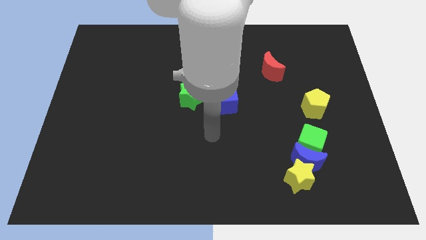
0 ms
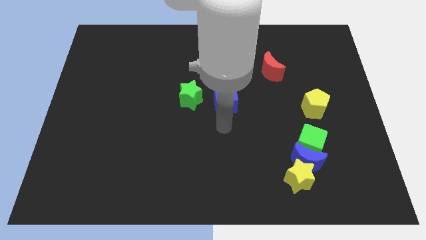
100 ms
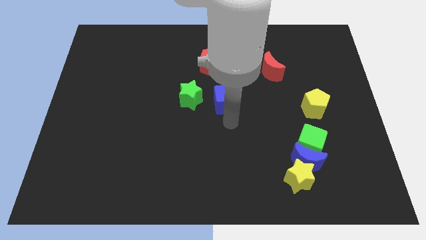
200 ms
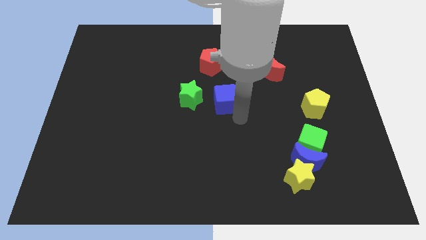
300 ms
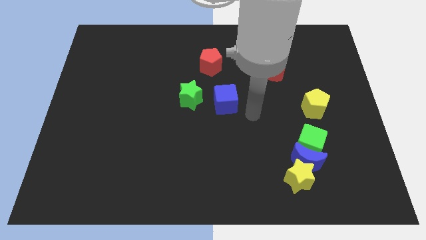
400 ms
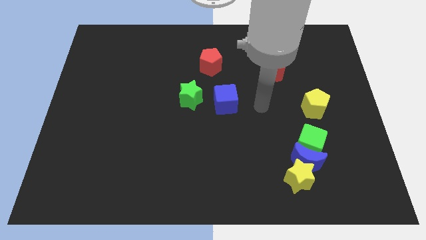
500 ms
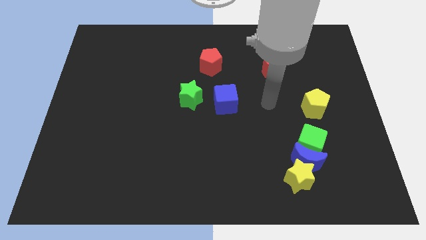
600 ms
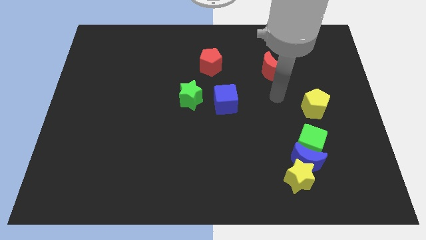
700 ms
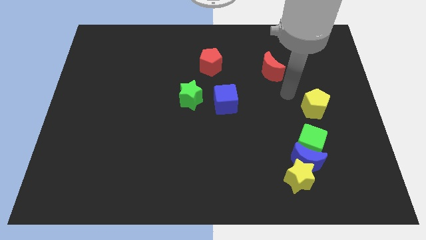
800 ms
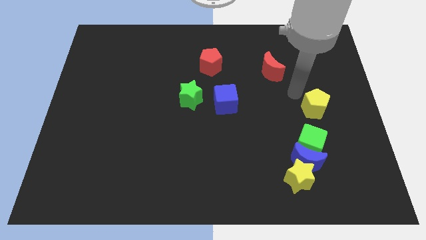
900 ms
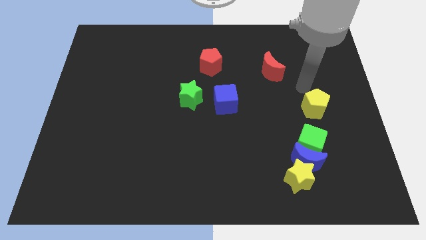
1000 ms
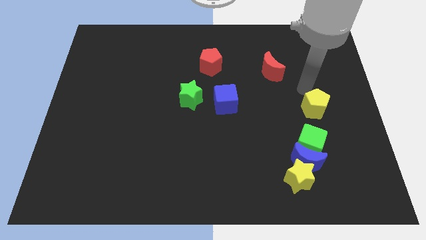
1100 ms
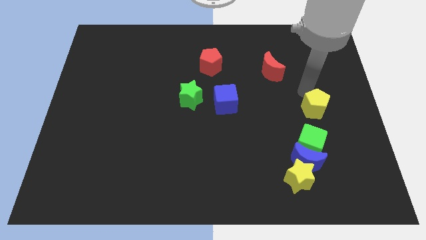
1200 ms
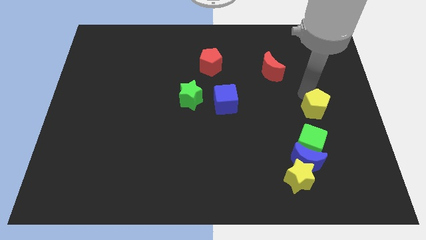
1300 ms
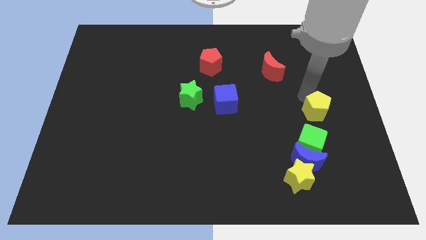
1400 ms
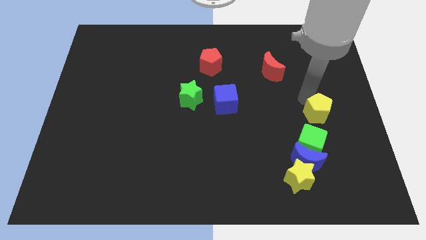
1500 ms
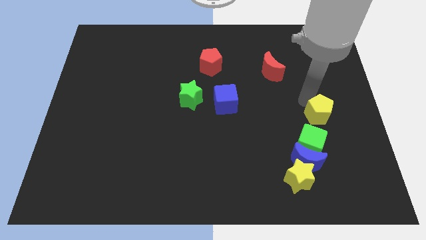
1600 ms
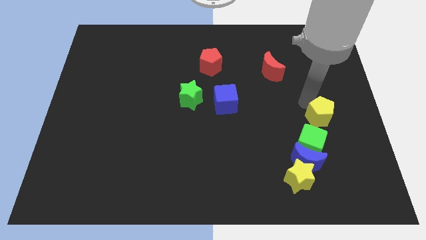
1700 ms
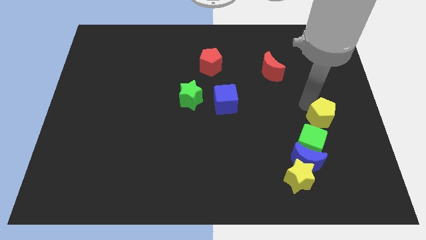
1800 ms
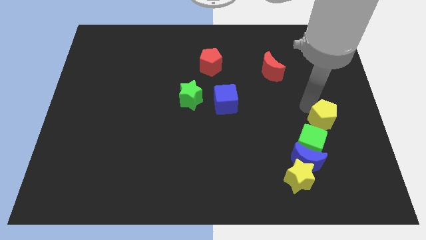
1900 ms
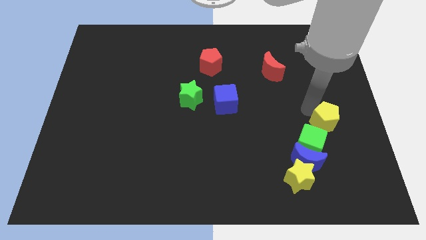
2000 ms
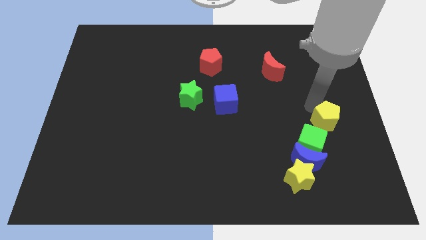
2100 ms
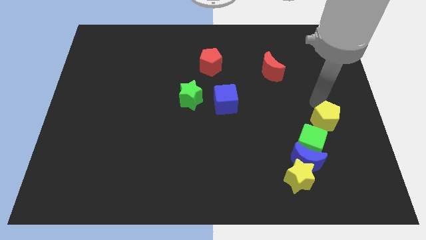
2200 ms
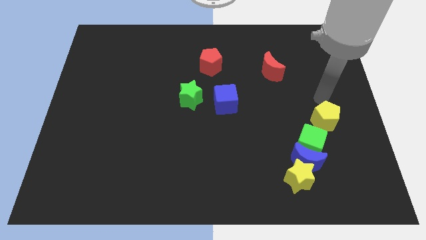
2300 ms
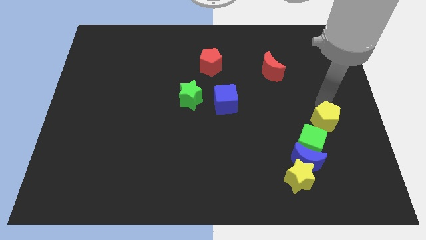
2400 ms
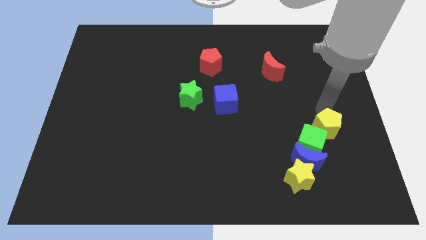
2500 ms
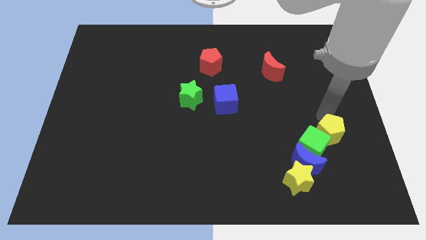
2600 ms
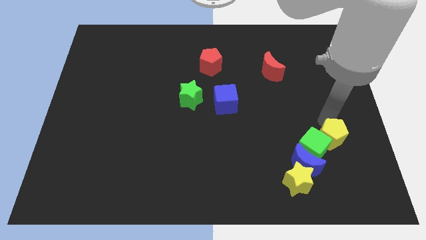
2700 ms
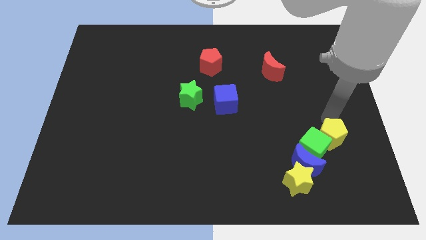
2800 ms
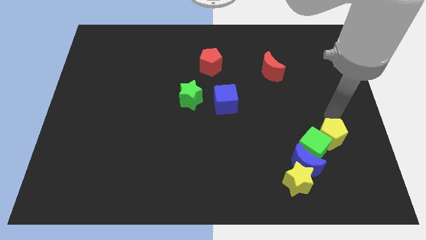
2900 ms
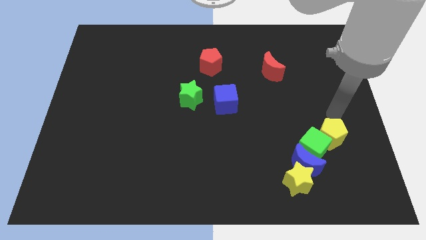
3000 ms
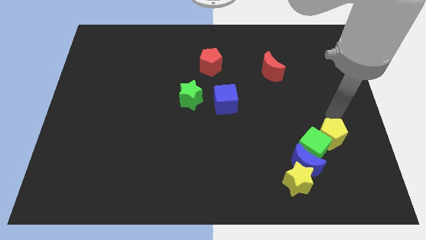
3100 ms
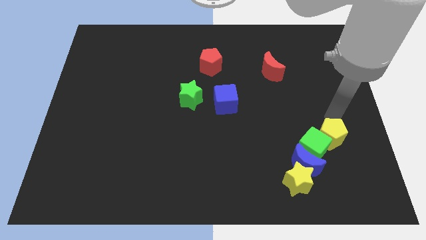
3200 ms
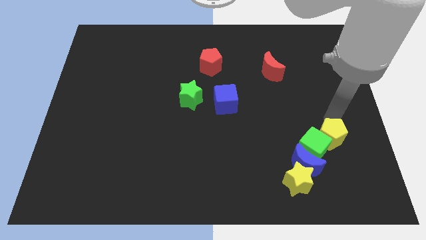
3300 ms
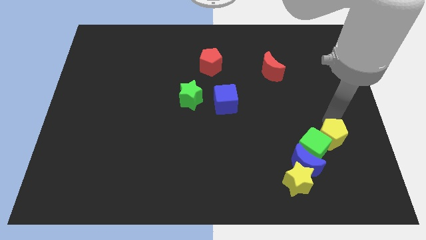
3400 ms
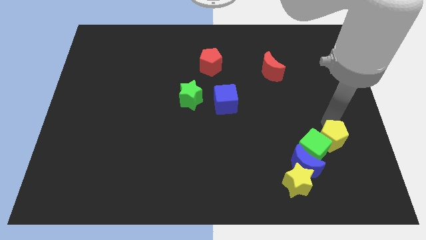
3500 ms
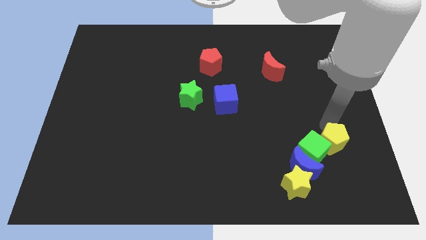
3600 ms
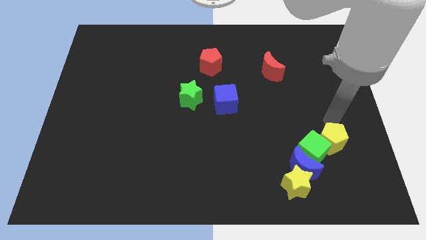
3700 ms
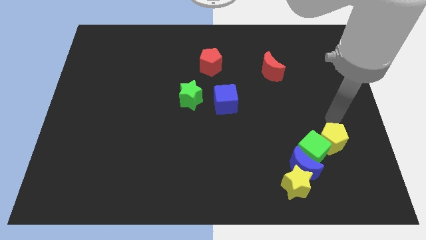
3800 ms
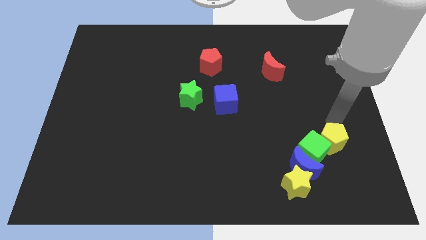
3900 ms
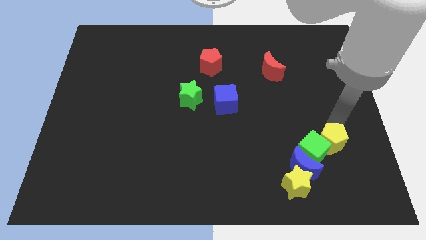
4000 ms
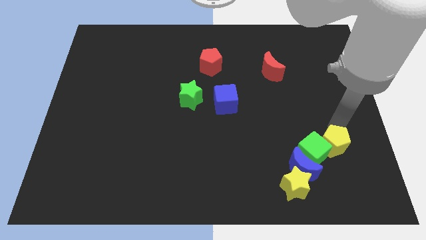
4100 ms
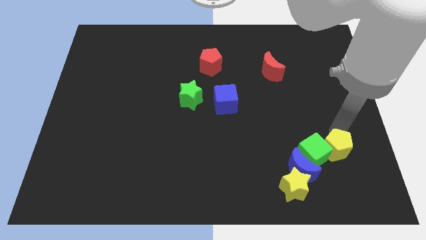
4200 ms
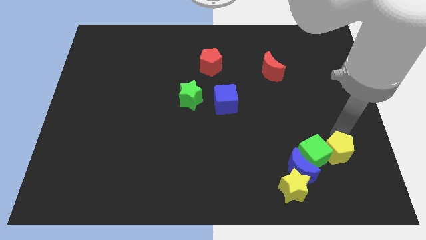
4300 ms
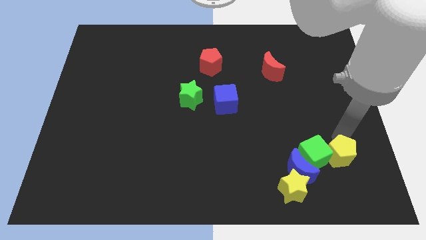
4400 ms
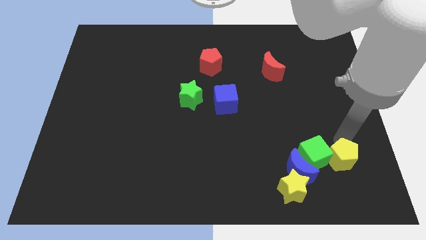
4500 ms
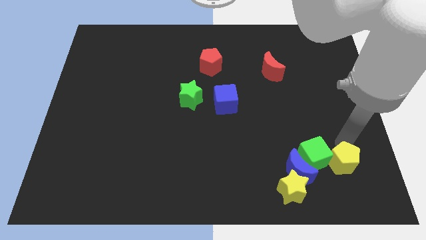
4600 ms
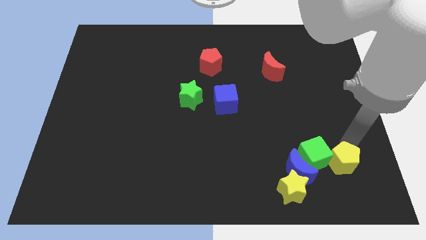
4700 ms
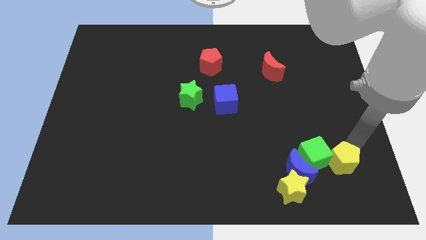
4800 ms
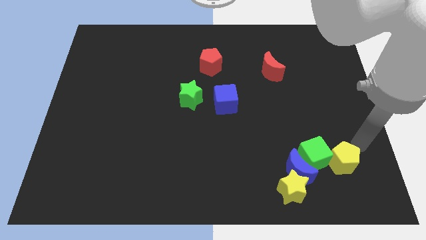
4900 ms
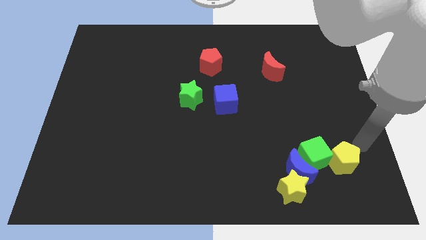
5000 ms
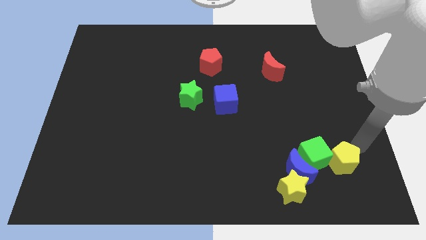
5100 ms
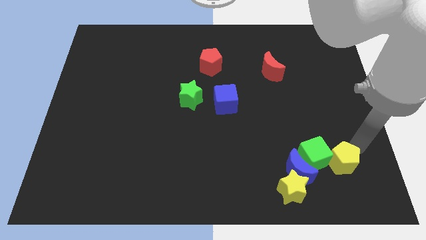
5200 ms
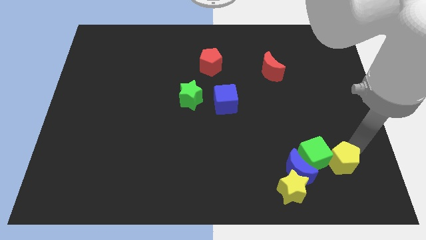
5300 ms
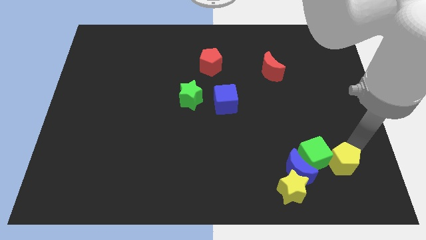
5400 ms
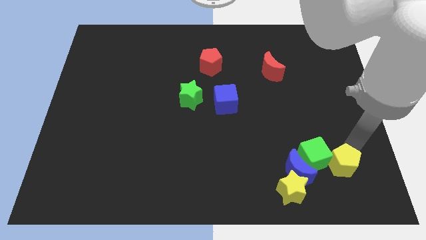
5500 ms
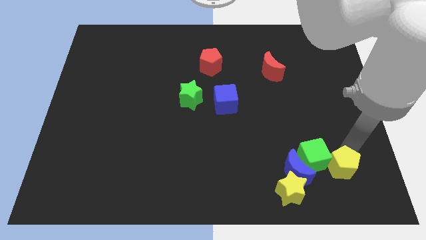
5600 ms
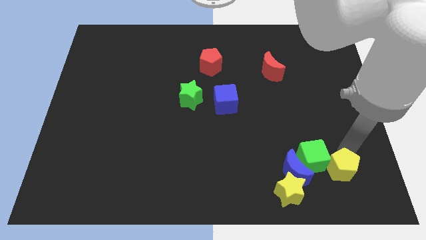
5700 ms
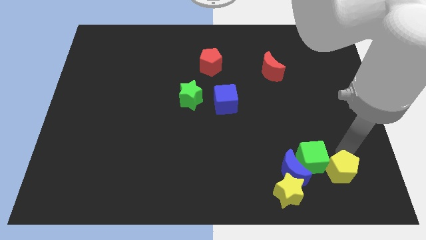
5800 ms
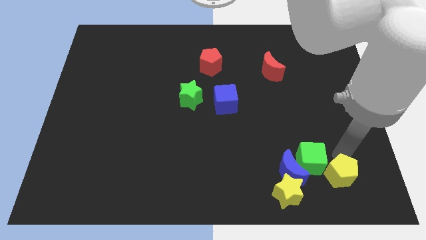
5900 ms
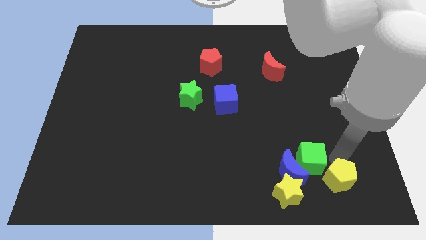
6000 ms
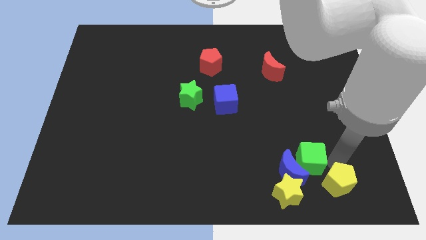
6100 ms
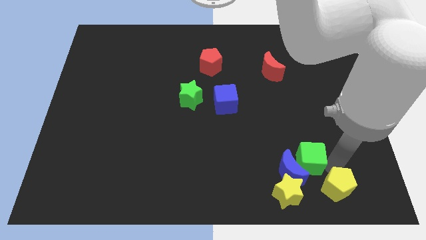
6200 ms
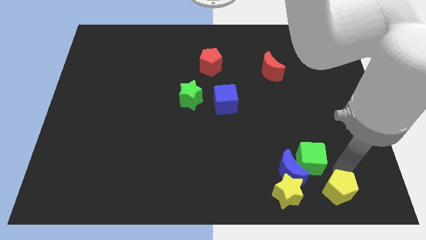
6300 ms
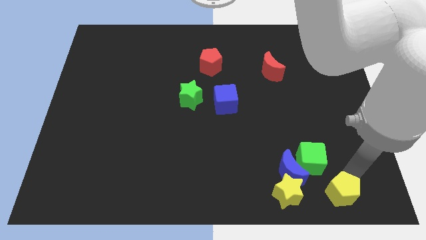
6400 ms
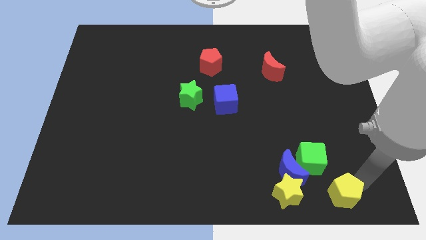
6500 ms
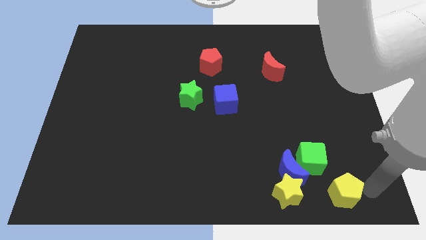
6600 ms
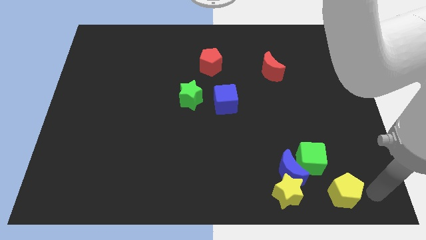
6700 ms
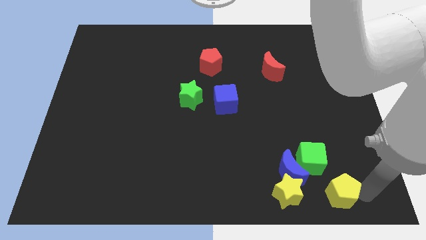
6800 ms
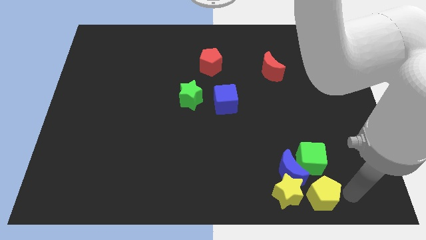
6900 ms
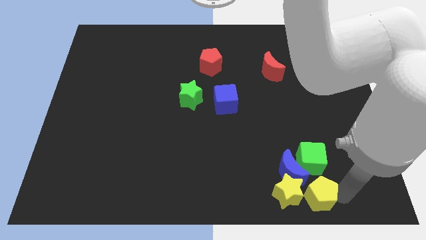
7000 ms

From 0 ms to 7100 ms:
push the yellow pentagon close to the yellow star

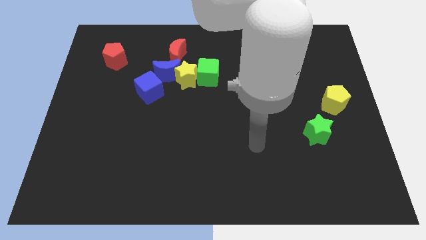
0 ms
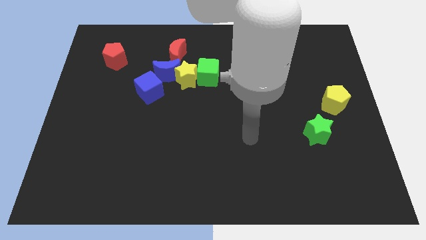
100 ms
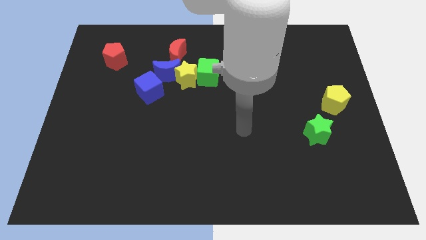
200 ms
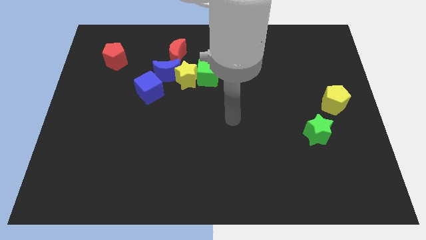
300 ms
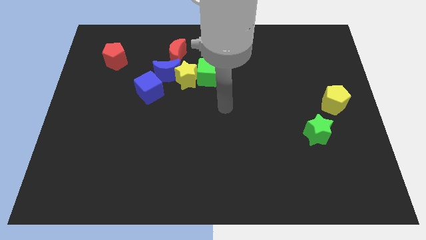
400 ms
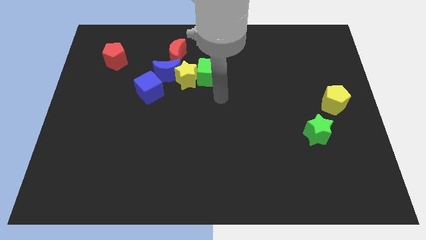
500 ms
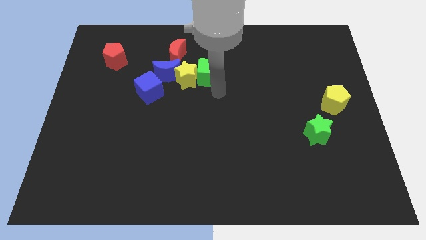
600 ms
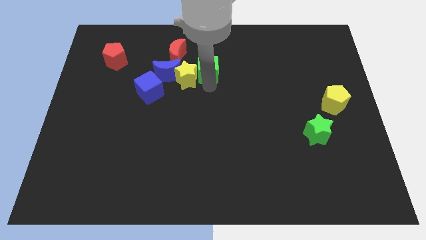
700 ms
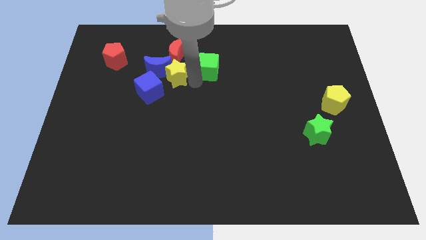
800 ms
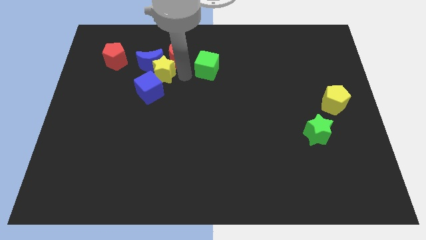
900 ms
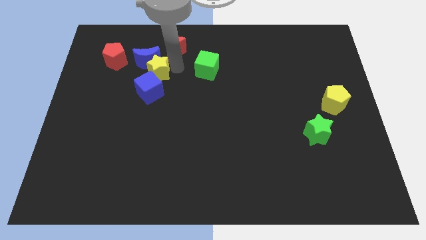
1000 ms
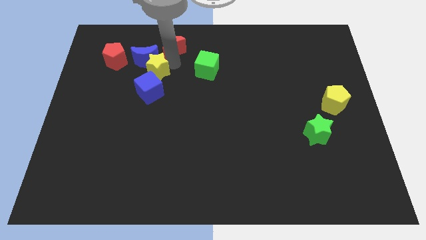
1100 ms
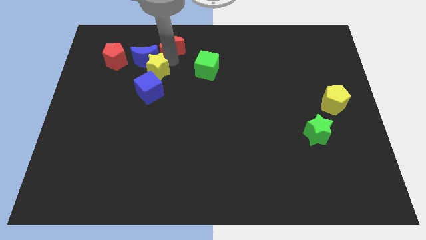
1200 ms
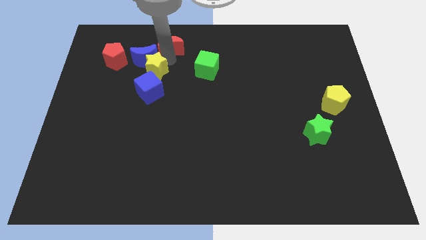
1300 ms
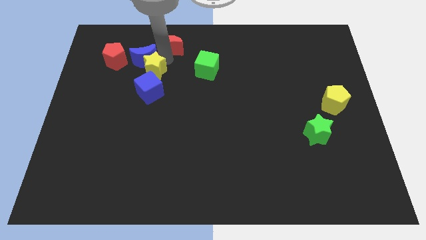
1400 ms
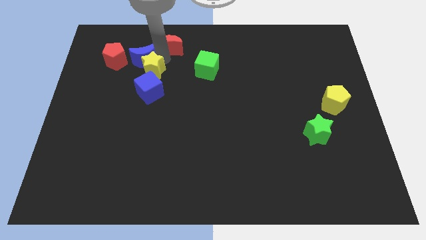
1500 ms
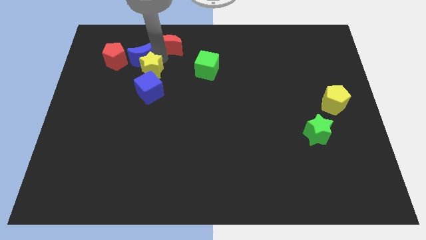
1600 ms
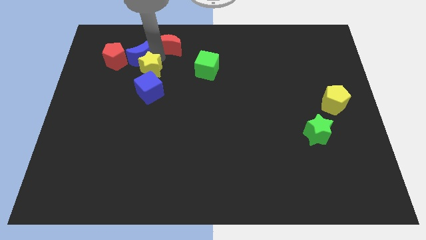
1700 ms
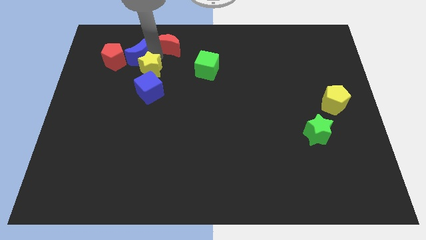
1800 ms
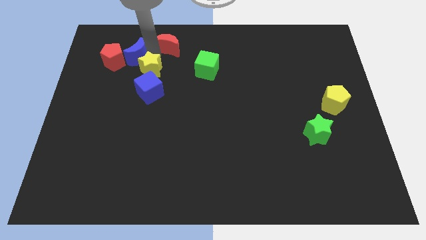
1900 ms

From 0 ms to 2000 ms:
put the blue moon next to the red pentagon
